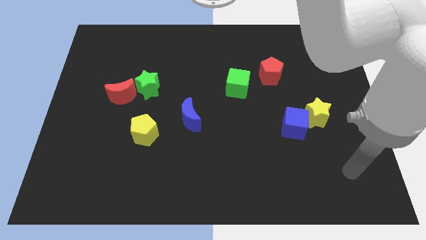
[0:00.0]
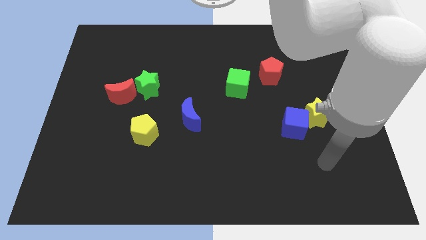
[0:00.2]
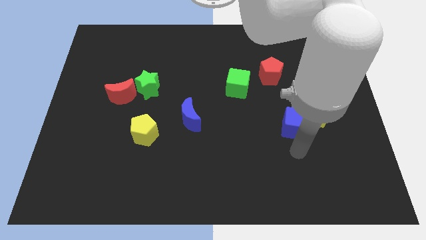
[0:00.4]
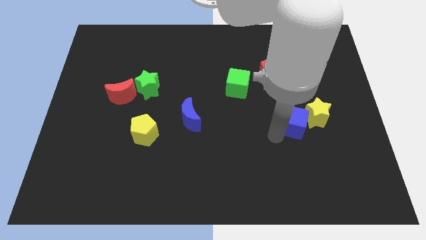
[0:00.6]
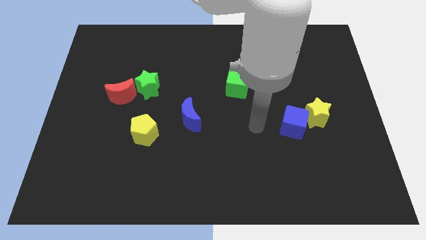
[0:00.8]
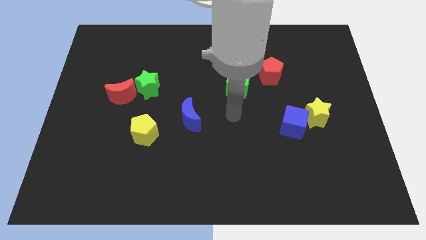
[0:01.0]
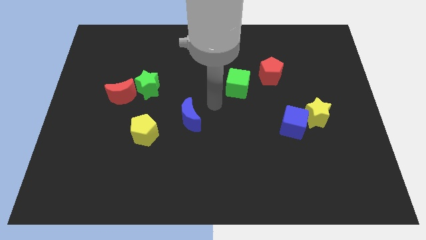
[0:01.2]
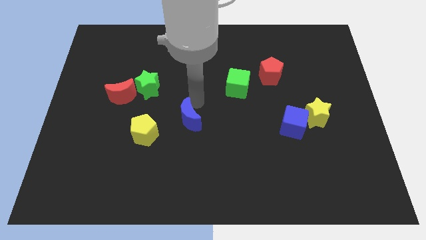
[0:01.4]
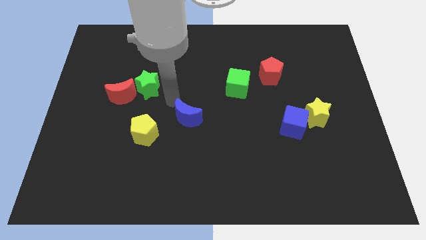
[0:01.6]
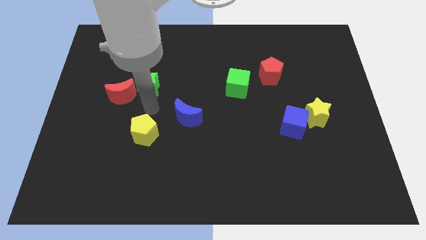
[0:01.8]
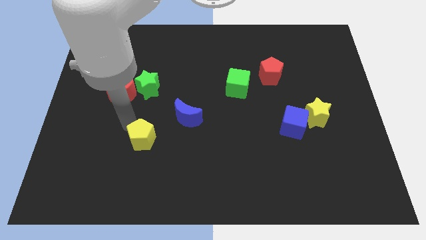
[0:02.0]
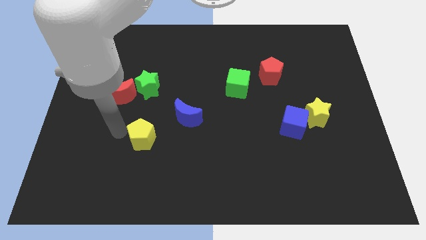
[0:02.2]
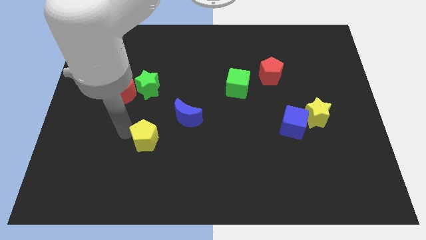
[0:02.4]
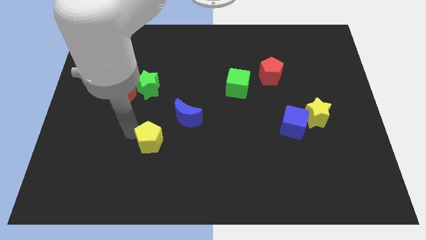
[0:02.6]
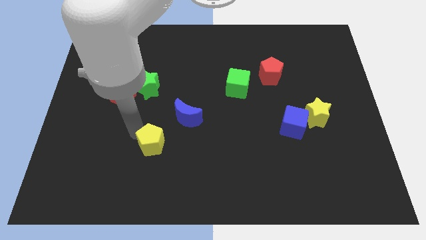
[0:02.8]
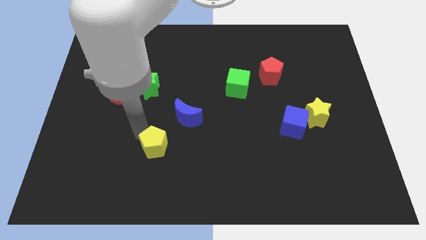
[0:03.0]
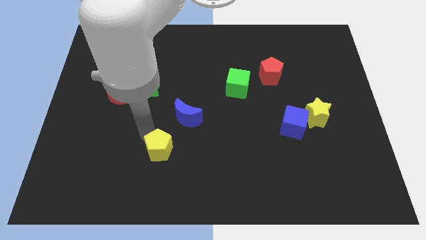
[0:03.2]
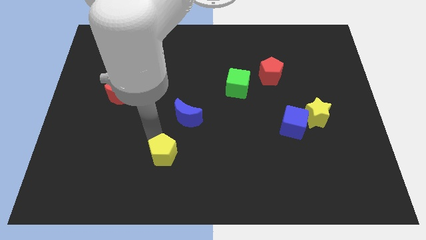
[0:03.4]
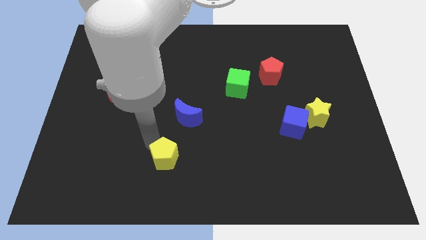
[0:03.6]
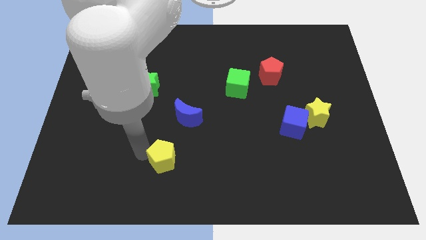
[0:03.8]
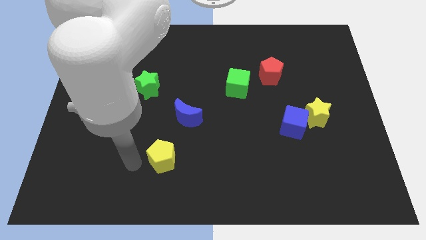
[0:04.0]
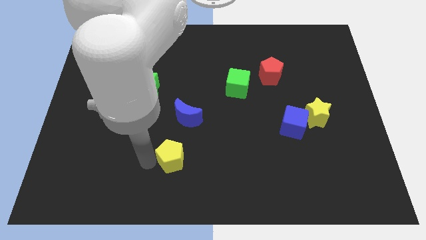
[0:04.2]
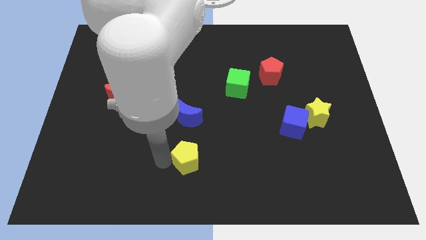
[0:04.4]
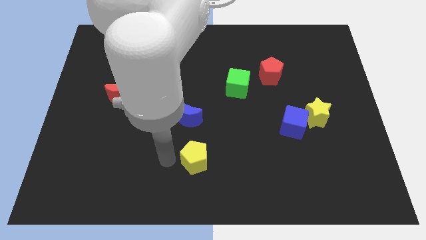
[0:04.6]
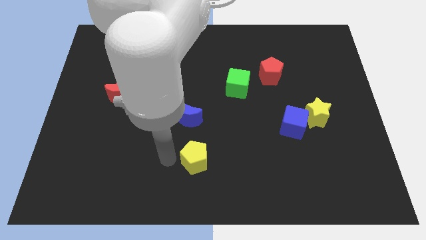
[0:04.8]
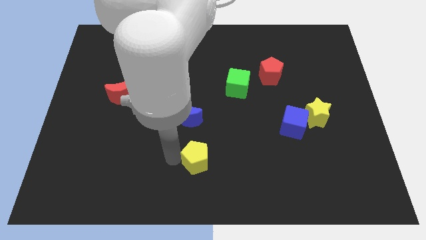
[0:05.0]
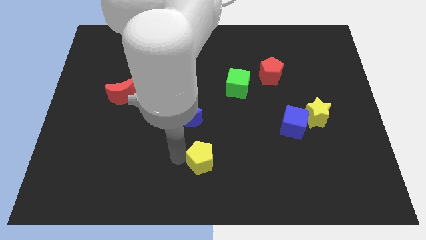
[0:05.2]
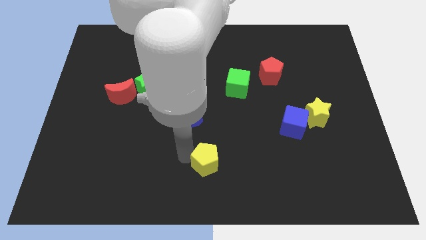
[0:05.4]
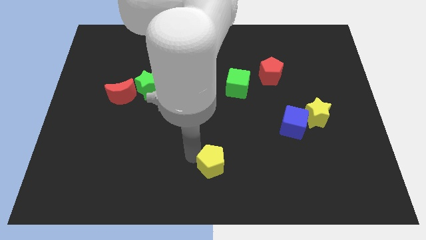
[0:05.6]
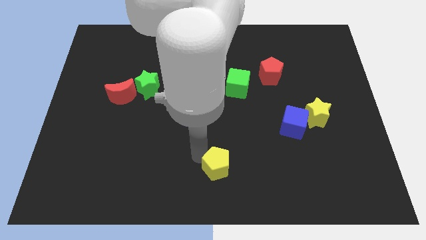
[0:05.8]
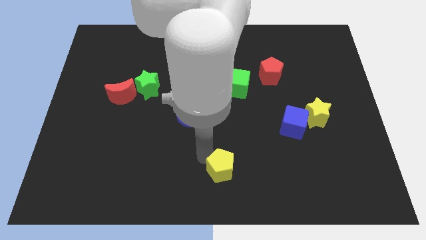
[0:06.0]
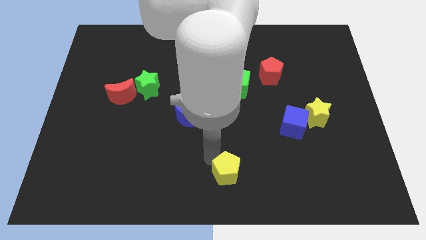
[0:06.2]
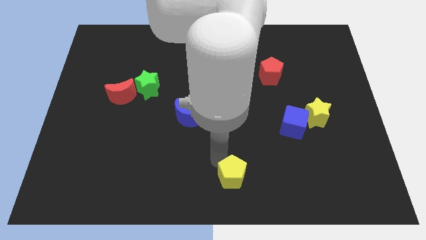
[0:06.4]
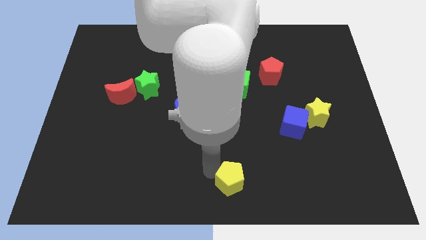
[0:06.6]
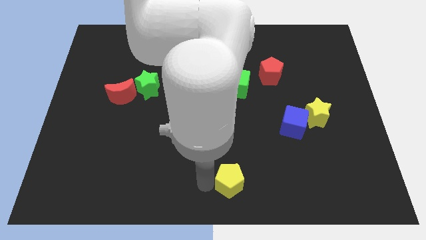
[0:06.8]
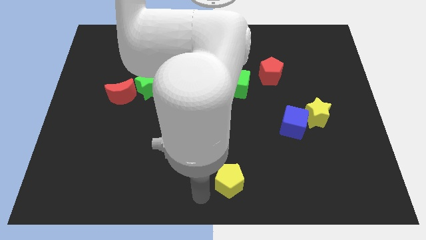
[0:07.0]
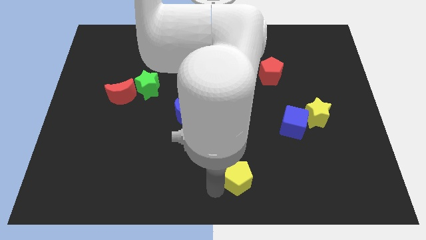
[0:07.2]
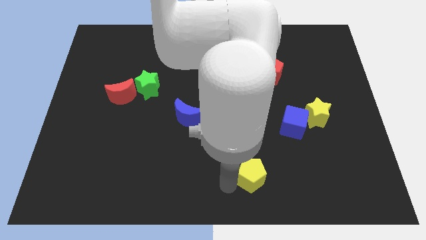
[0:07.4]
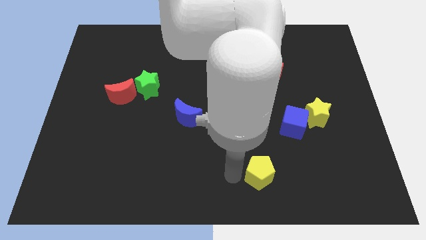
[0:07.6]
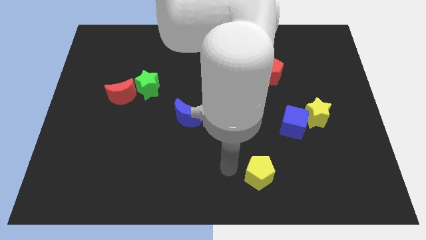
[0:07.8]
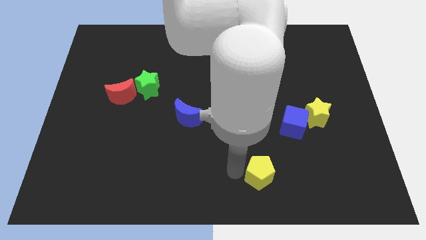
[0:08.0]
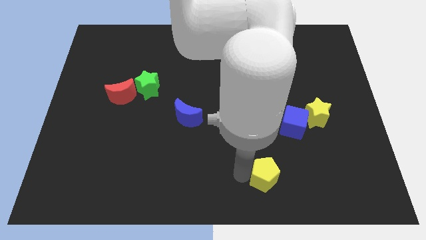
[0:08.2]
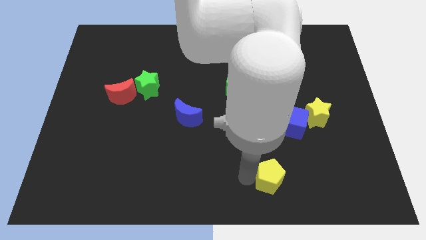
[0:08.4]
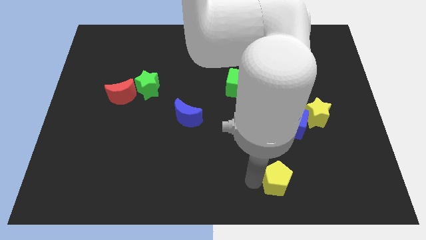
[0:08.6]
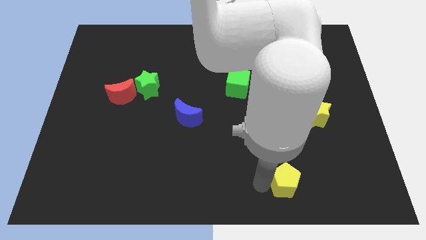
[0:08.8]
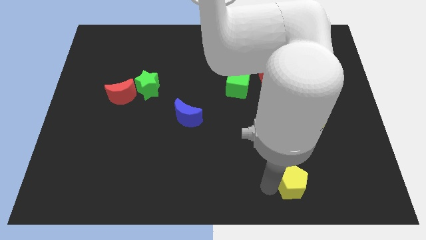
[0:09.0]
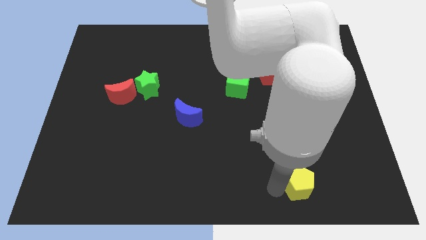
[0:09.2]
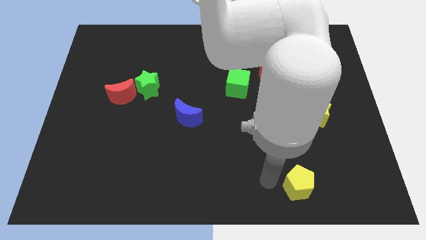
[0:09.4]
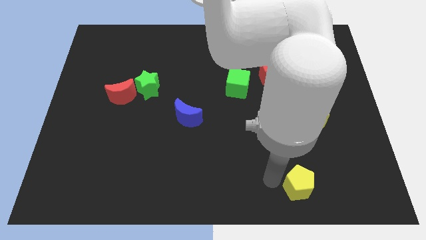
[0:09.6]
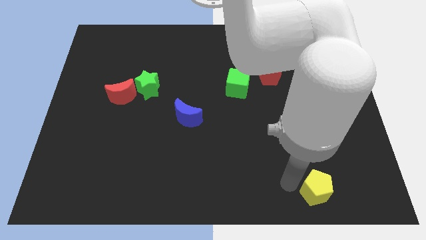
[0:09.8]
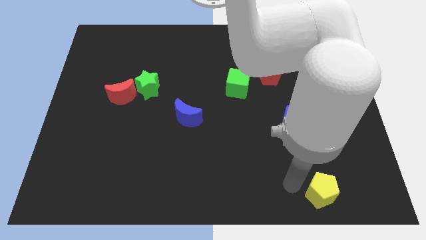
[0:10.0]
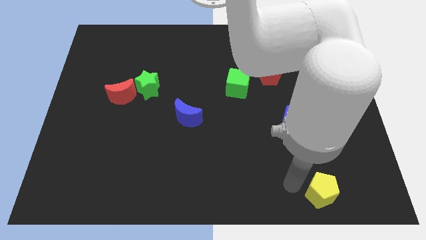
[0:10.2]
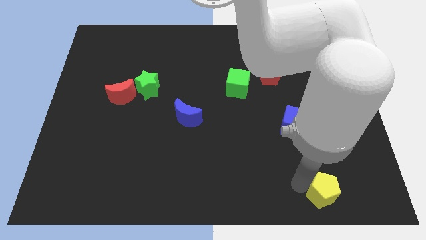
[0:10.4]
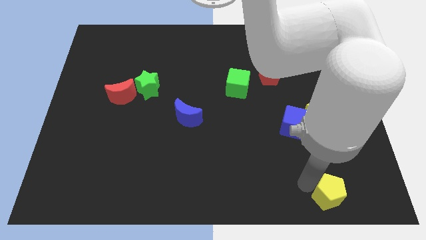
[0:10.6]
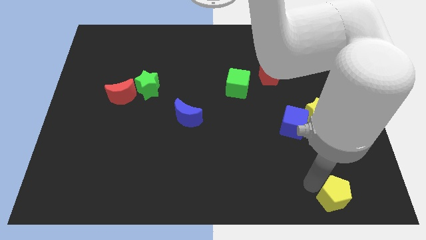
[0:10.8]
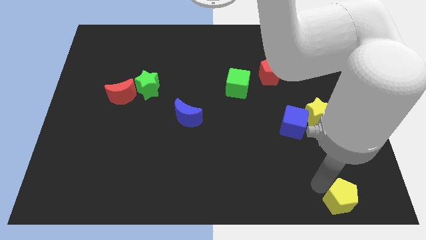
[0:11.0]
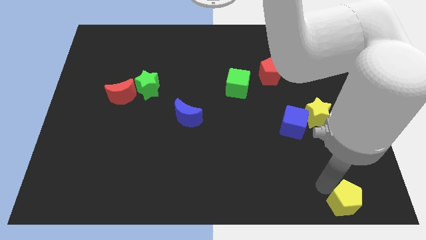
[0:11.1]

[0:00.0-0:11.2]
put the yellow pentagon to the bottom right of the board

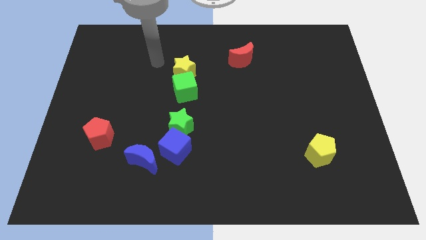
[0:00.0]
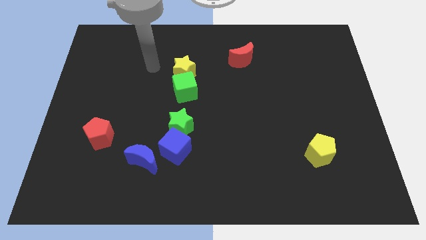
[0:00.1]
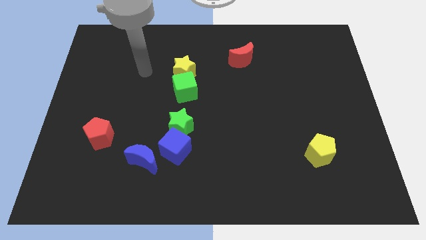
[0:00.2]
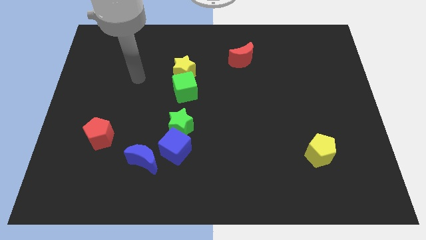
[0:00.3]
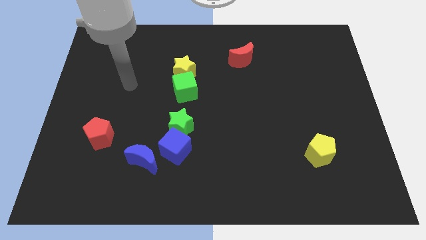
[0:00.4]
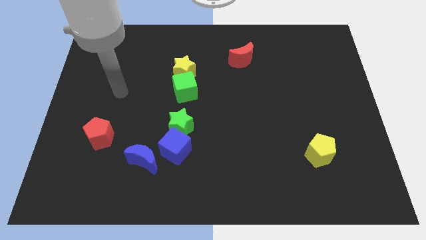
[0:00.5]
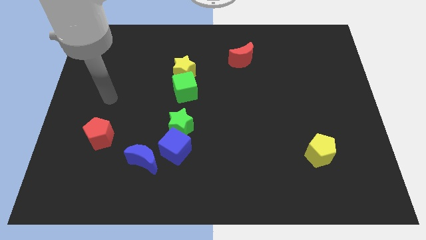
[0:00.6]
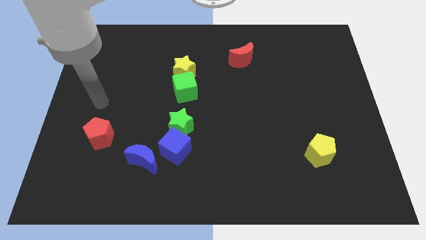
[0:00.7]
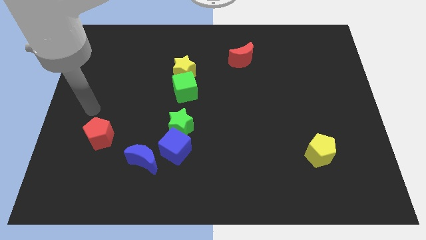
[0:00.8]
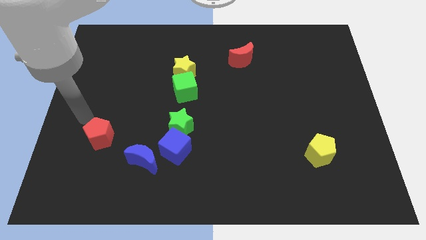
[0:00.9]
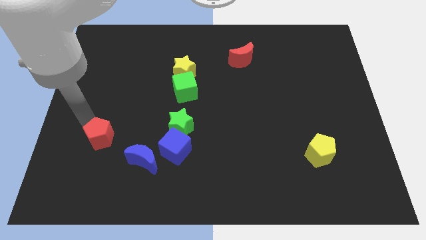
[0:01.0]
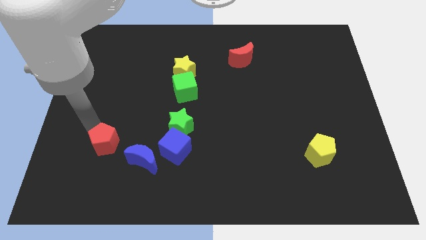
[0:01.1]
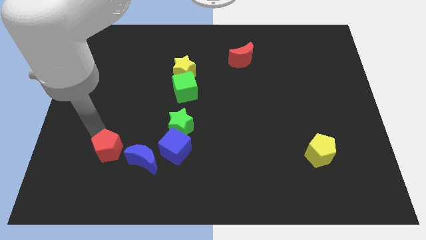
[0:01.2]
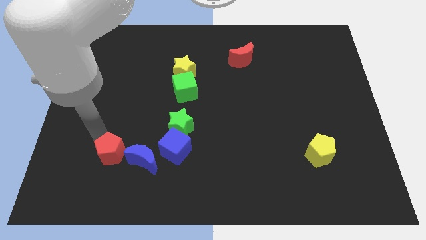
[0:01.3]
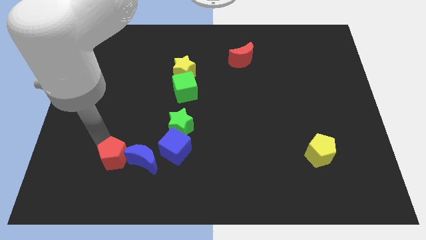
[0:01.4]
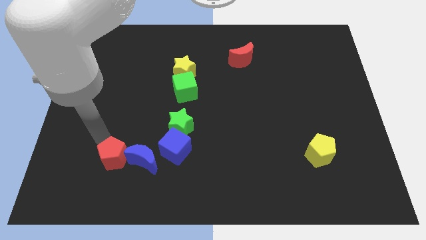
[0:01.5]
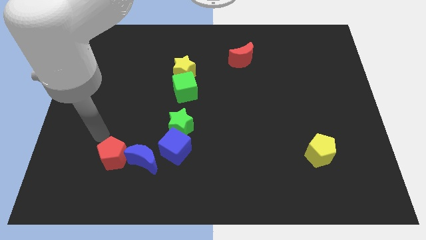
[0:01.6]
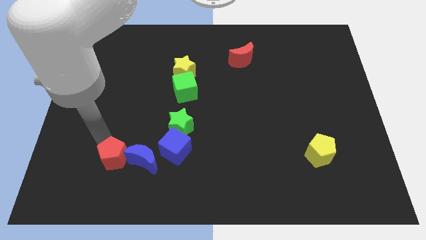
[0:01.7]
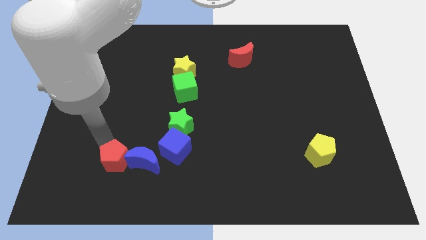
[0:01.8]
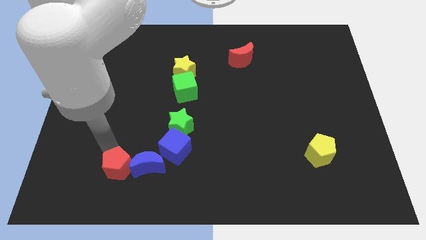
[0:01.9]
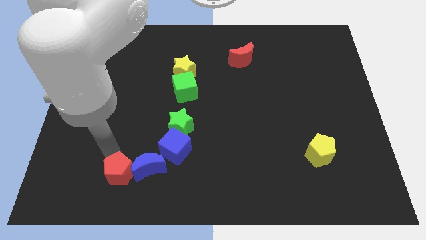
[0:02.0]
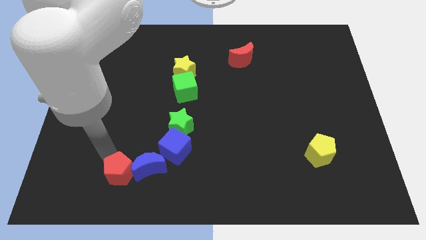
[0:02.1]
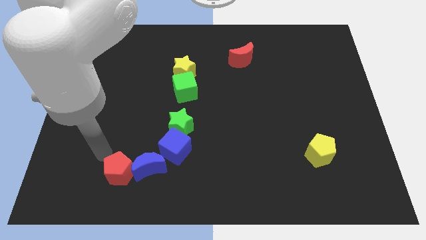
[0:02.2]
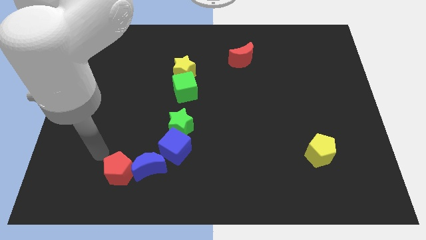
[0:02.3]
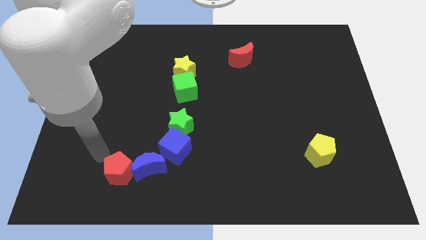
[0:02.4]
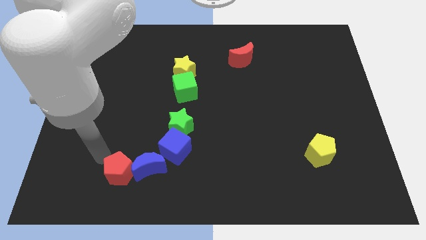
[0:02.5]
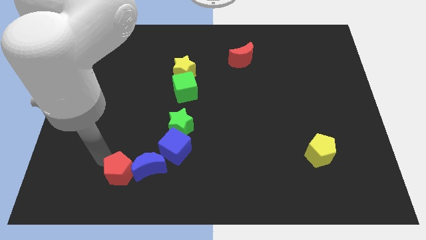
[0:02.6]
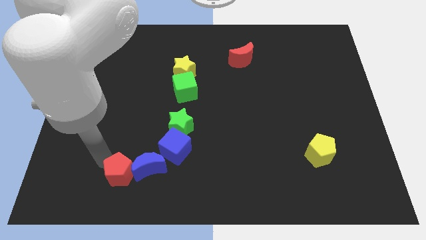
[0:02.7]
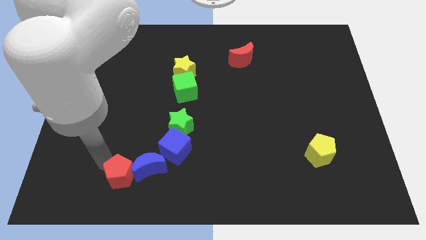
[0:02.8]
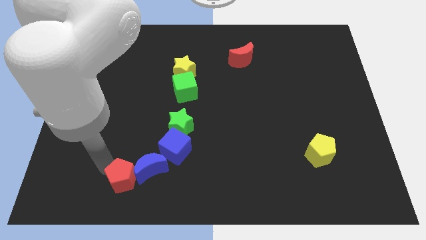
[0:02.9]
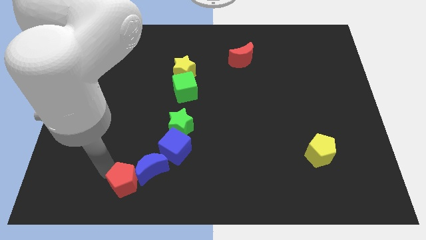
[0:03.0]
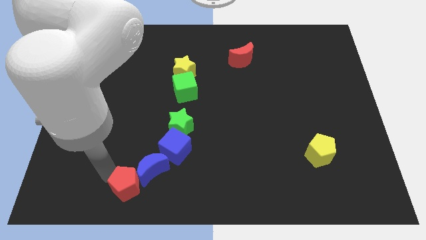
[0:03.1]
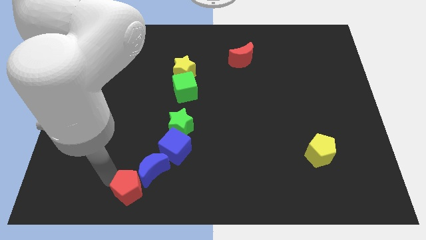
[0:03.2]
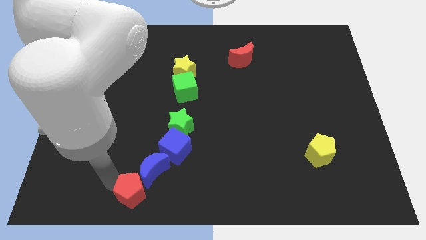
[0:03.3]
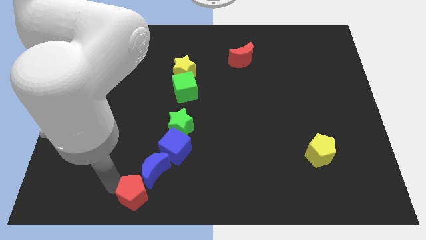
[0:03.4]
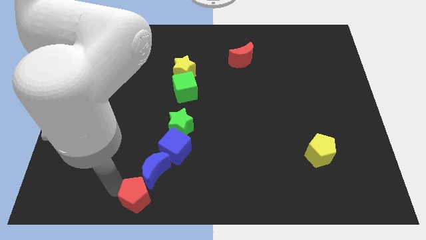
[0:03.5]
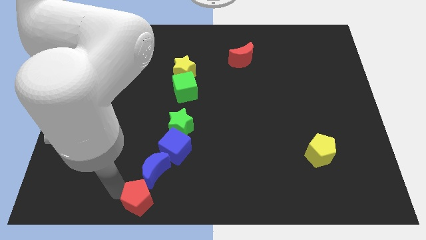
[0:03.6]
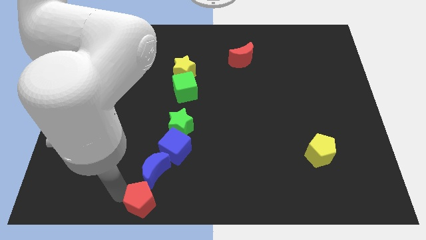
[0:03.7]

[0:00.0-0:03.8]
put the red pentagon to the bottom
